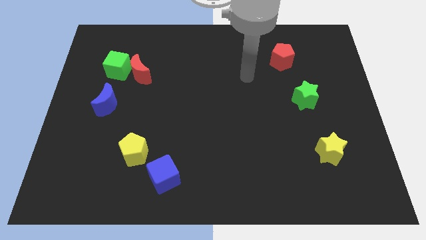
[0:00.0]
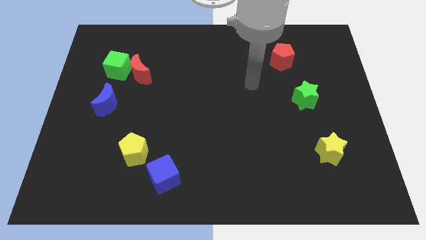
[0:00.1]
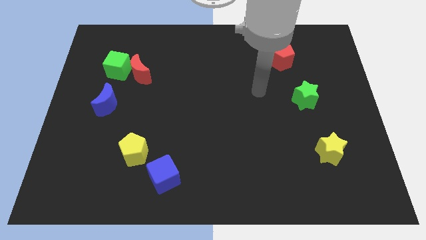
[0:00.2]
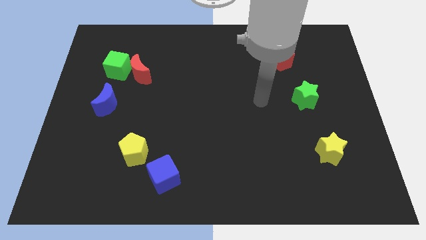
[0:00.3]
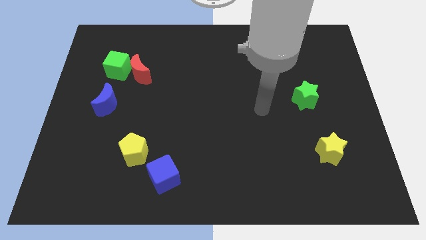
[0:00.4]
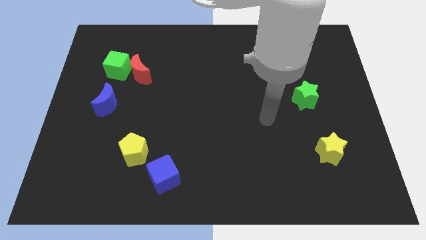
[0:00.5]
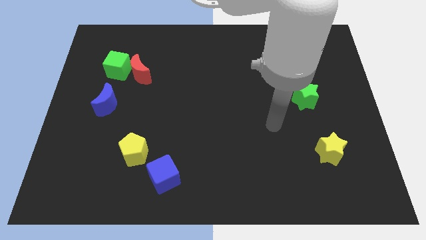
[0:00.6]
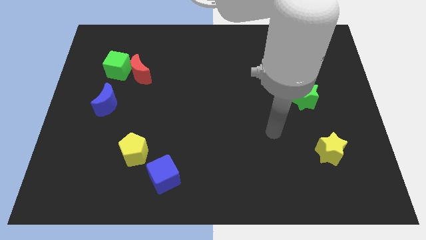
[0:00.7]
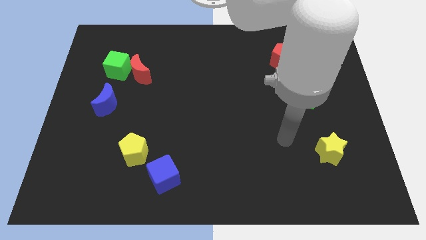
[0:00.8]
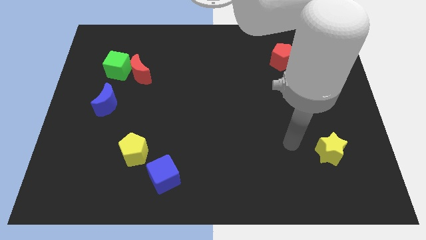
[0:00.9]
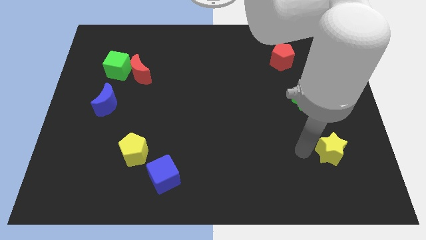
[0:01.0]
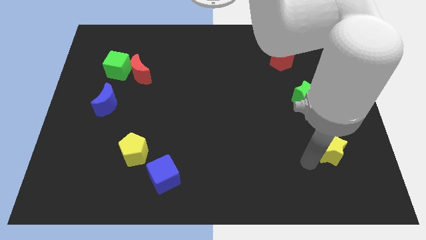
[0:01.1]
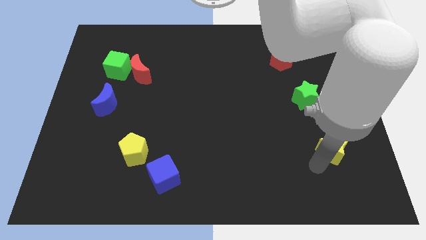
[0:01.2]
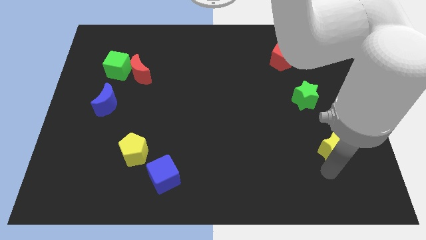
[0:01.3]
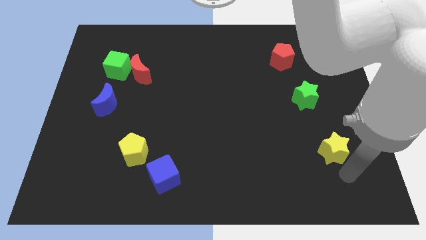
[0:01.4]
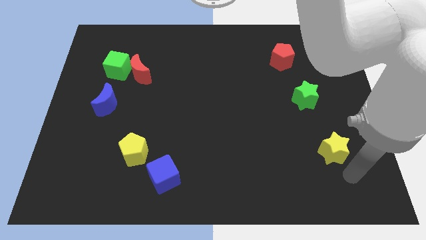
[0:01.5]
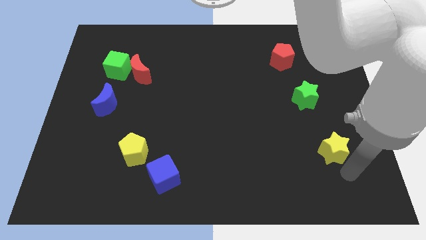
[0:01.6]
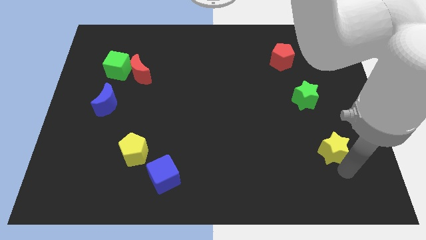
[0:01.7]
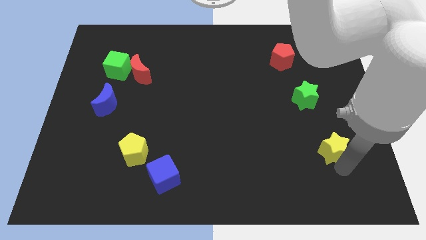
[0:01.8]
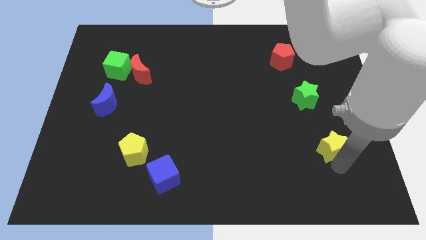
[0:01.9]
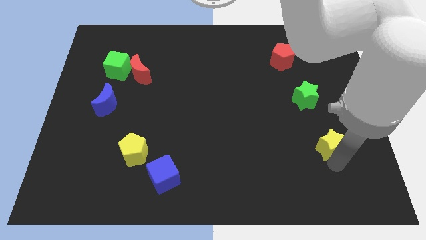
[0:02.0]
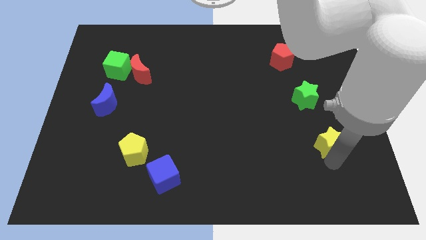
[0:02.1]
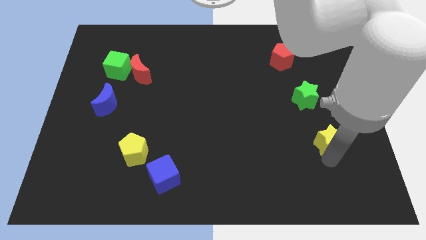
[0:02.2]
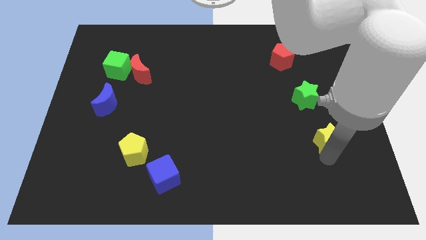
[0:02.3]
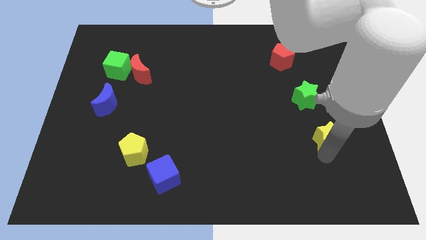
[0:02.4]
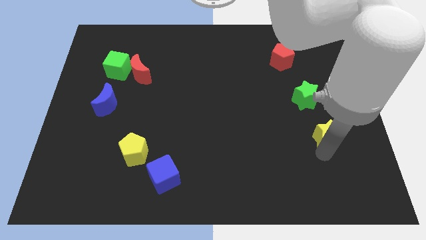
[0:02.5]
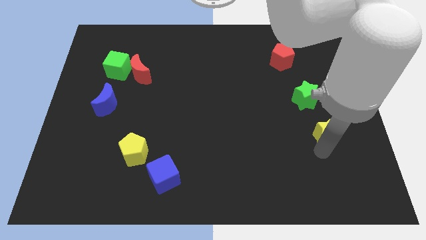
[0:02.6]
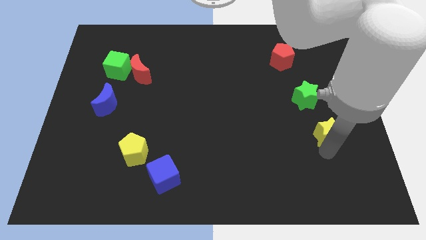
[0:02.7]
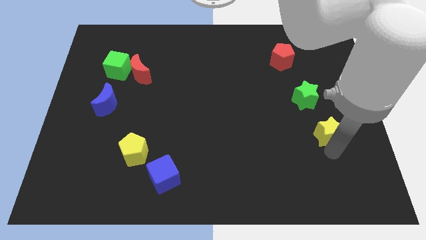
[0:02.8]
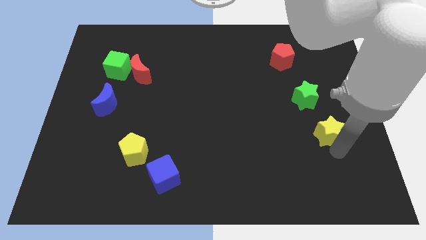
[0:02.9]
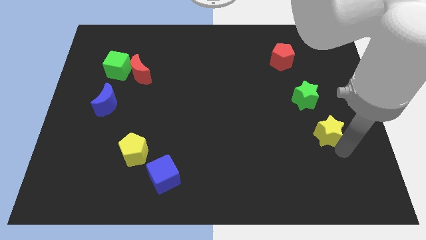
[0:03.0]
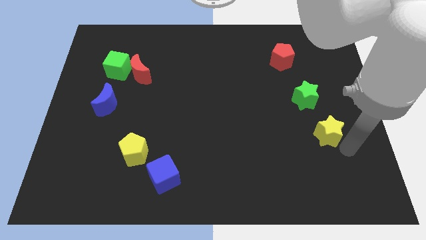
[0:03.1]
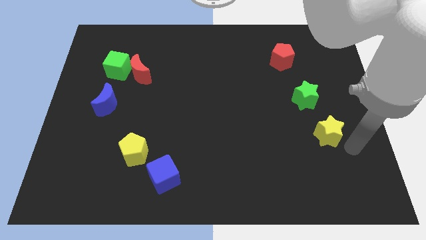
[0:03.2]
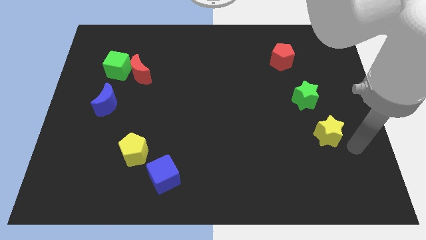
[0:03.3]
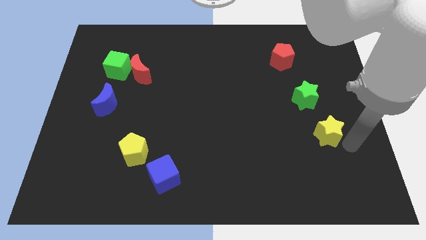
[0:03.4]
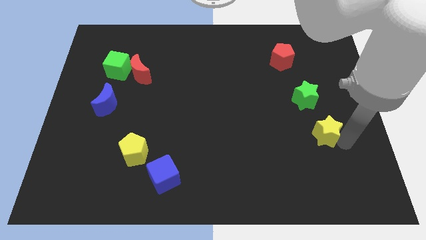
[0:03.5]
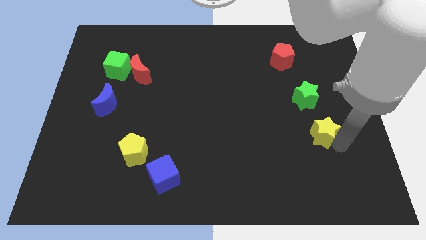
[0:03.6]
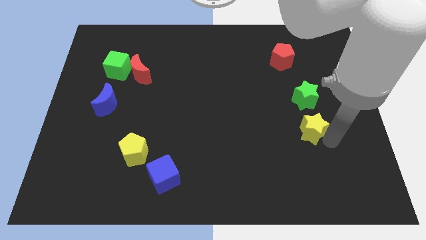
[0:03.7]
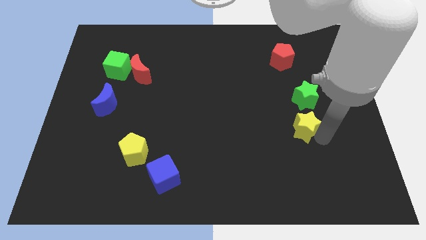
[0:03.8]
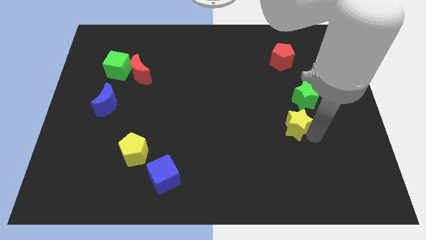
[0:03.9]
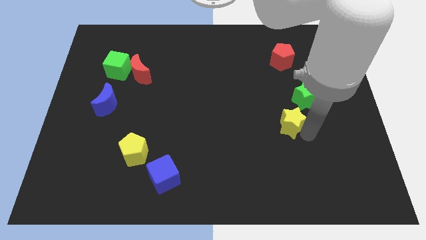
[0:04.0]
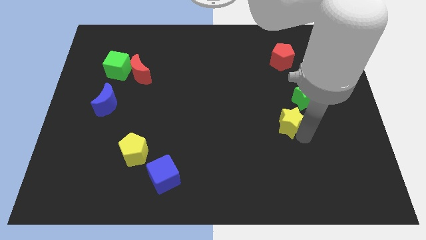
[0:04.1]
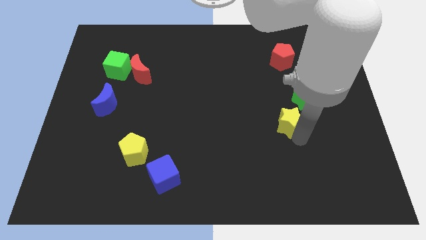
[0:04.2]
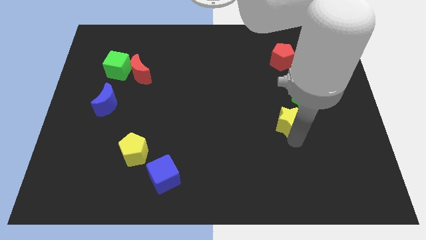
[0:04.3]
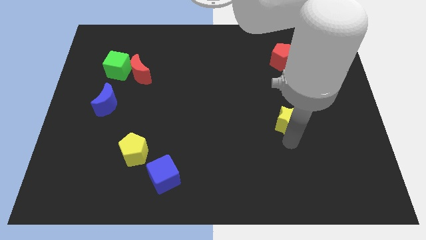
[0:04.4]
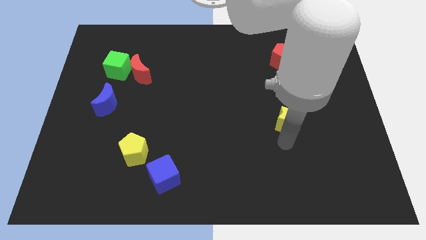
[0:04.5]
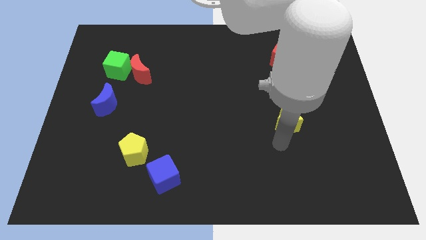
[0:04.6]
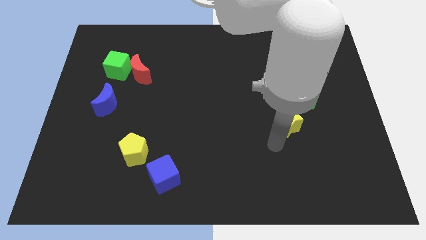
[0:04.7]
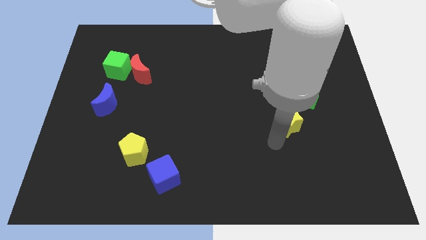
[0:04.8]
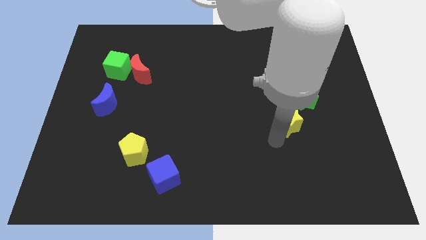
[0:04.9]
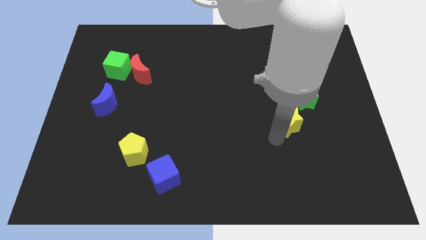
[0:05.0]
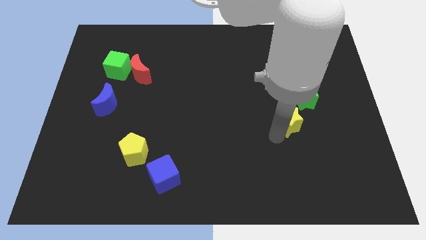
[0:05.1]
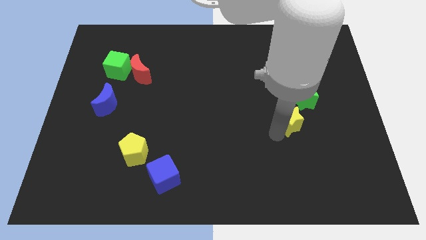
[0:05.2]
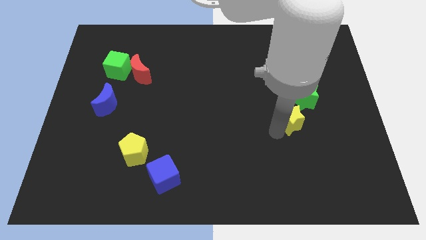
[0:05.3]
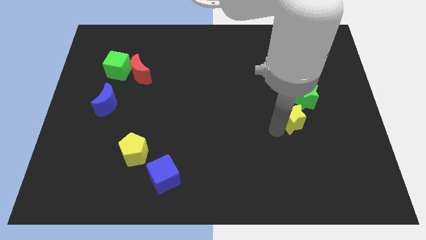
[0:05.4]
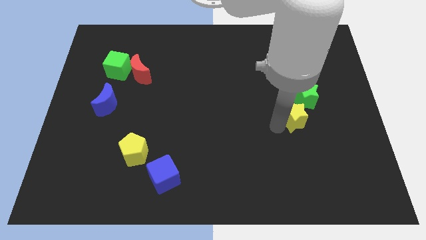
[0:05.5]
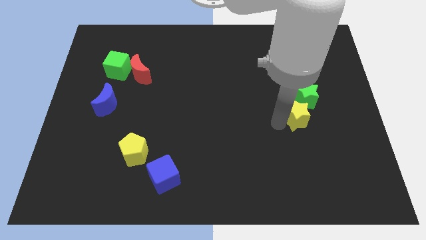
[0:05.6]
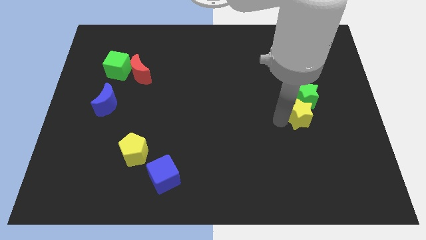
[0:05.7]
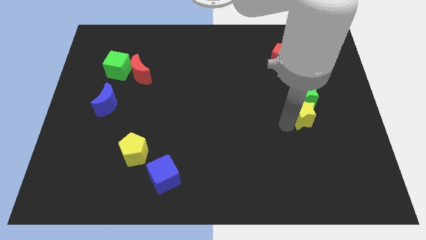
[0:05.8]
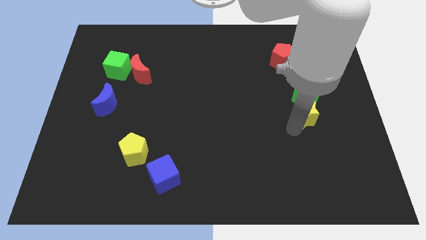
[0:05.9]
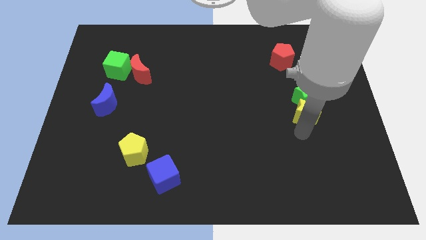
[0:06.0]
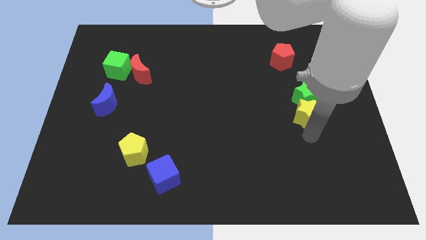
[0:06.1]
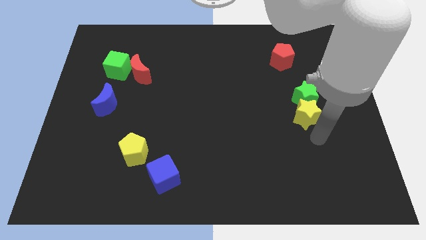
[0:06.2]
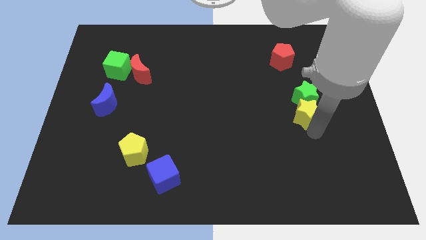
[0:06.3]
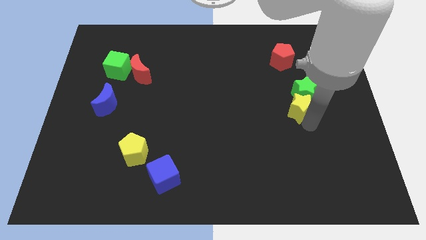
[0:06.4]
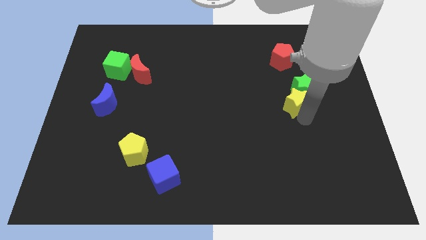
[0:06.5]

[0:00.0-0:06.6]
push the yellow star to the bottom of the red pentagon

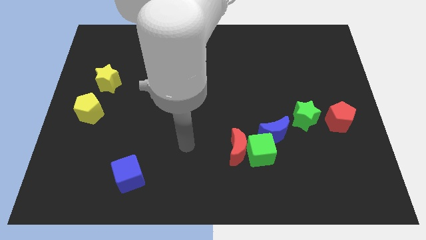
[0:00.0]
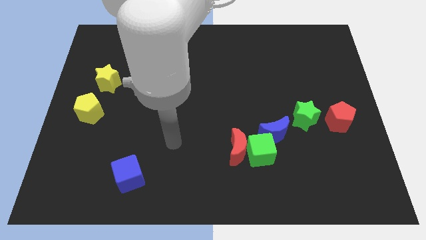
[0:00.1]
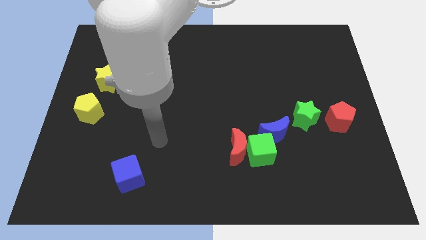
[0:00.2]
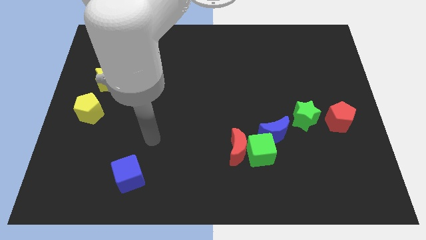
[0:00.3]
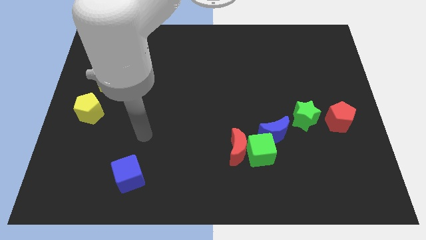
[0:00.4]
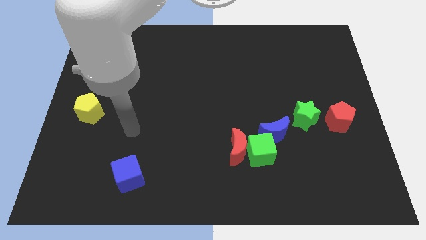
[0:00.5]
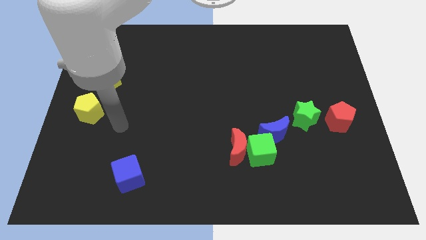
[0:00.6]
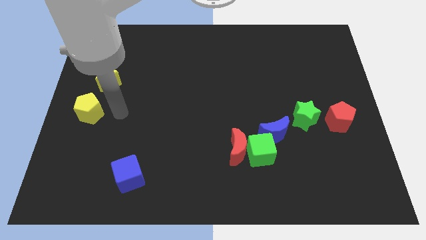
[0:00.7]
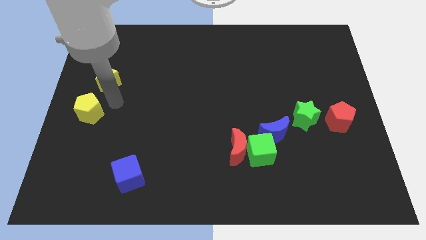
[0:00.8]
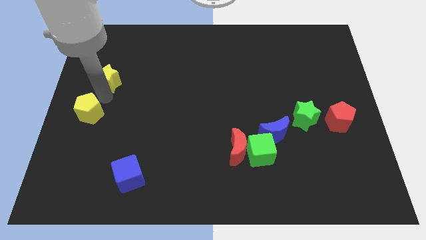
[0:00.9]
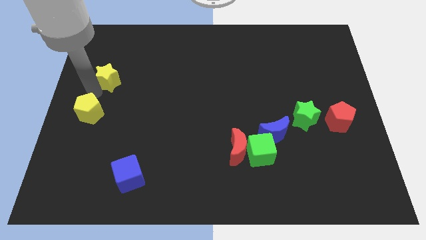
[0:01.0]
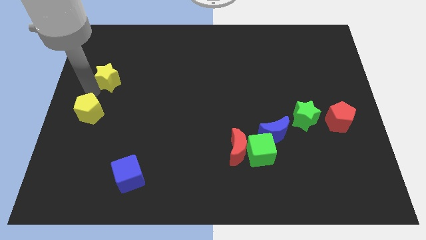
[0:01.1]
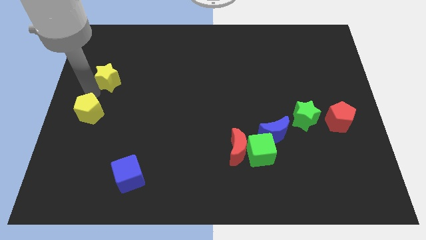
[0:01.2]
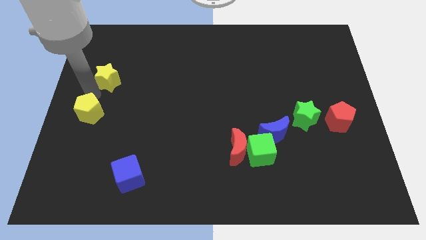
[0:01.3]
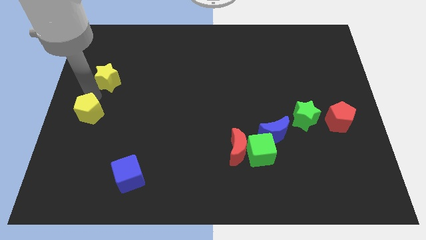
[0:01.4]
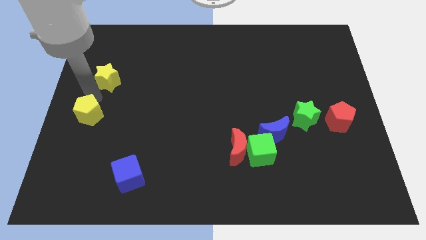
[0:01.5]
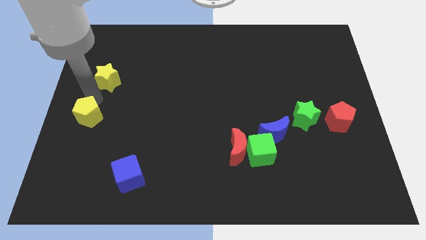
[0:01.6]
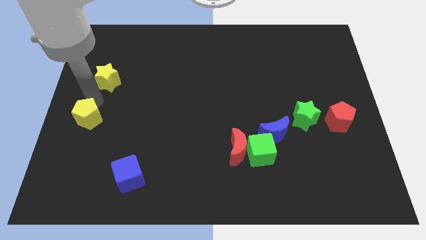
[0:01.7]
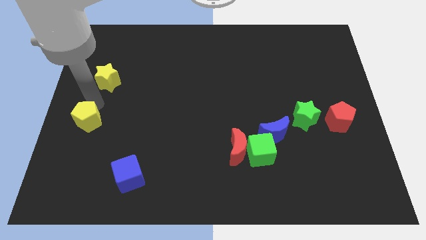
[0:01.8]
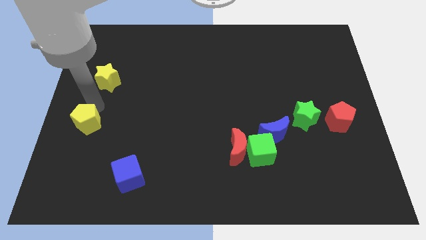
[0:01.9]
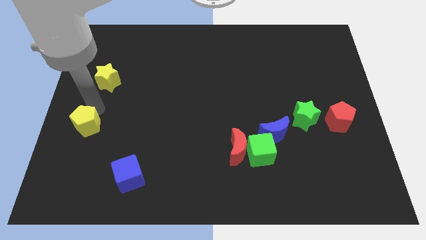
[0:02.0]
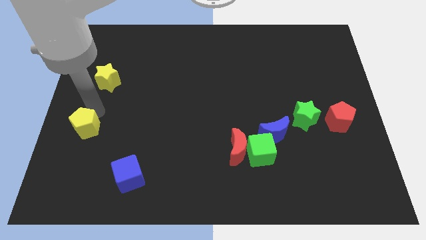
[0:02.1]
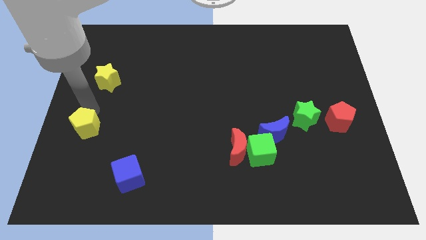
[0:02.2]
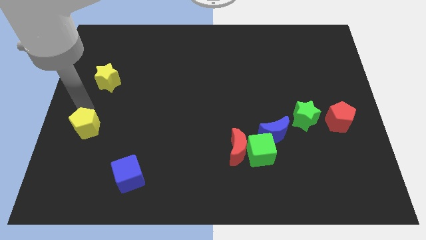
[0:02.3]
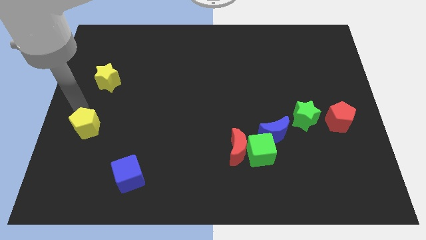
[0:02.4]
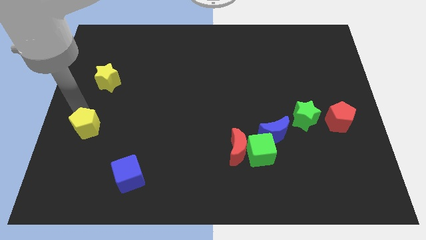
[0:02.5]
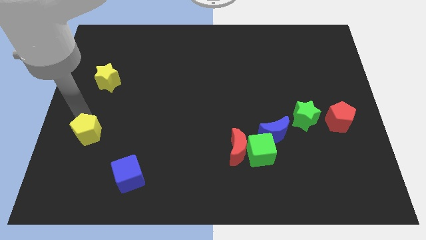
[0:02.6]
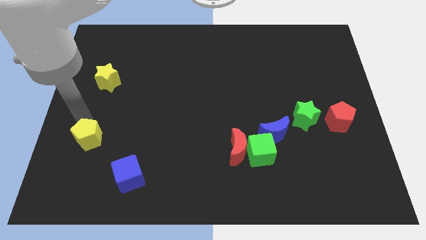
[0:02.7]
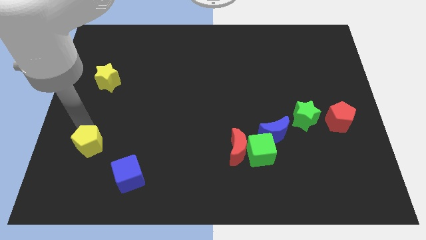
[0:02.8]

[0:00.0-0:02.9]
slide the yellow pentagon to the top left of the blue cube
